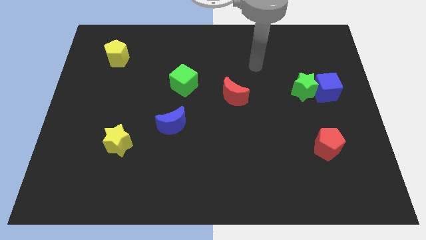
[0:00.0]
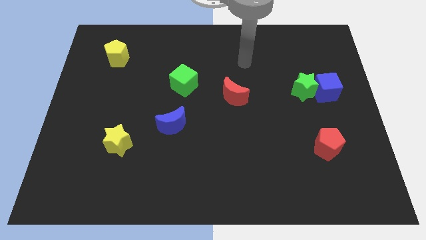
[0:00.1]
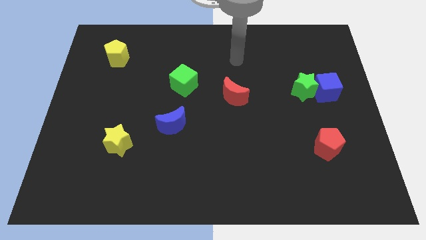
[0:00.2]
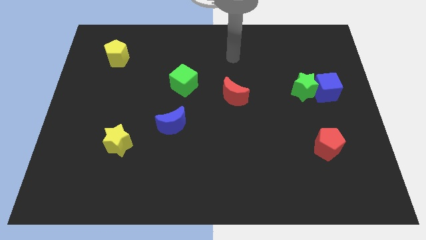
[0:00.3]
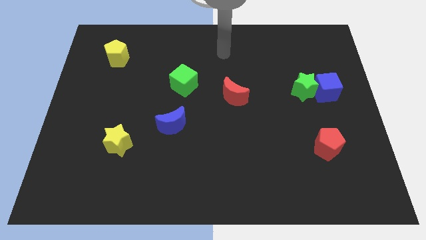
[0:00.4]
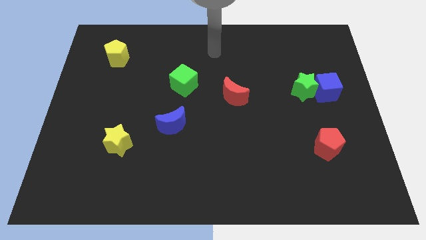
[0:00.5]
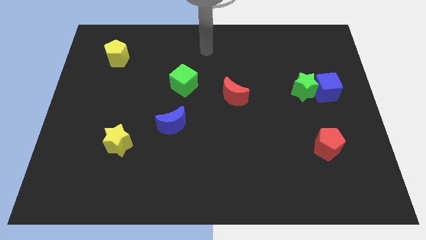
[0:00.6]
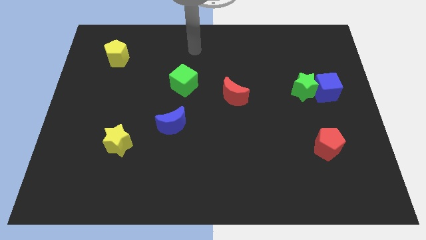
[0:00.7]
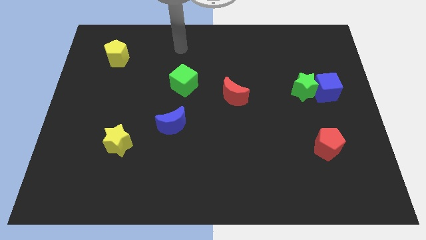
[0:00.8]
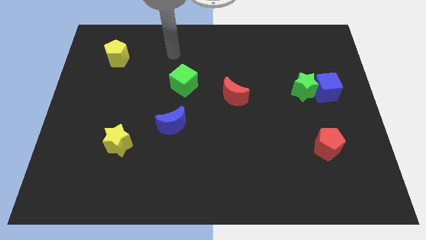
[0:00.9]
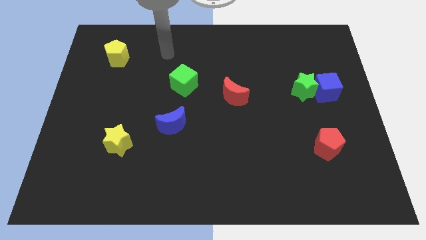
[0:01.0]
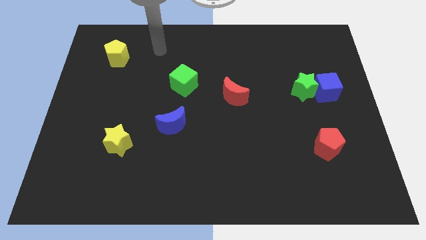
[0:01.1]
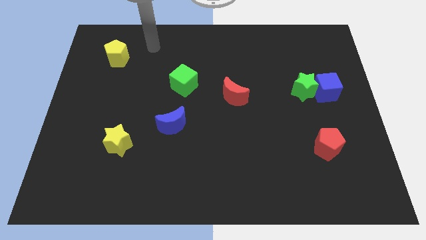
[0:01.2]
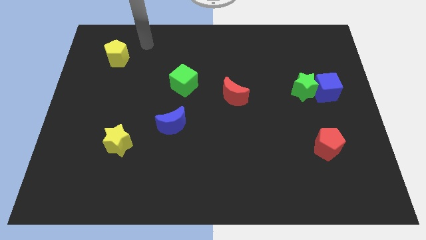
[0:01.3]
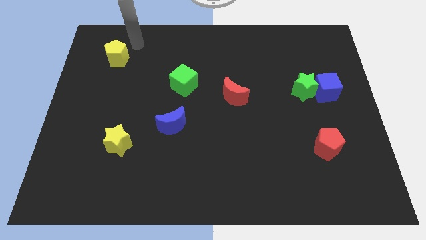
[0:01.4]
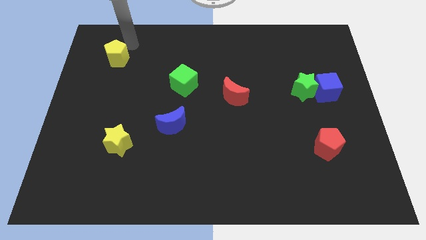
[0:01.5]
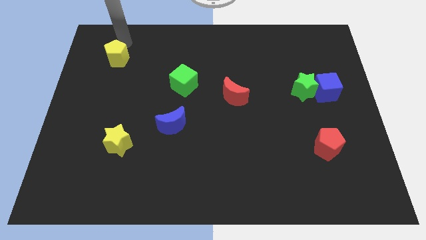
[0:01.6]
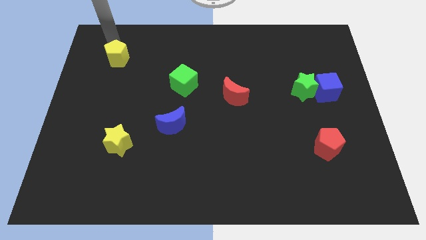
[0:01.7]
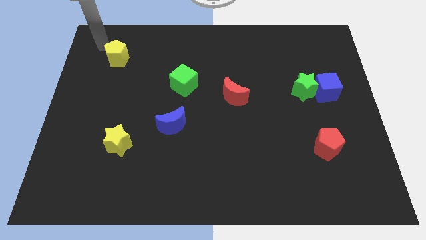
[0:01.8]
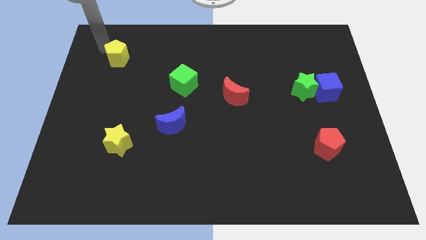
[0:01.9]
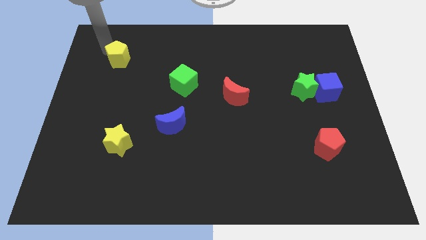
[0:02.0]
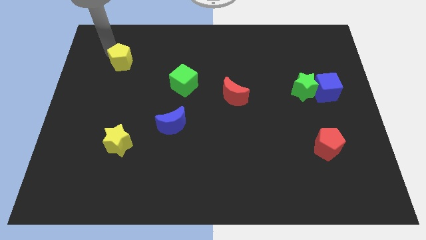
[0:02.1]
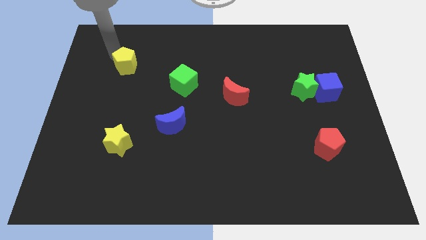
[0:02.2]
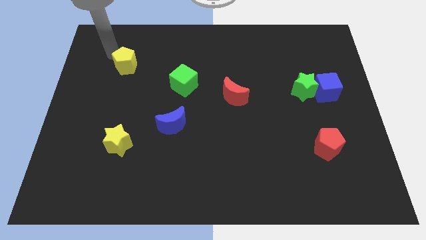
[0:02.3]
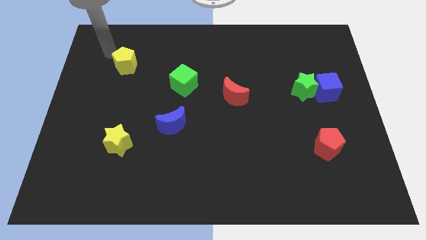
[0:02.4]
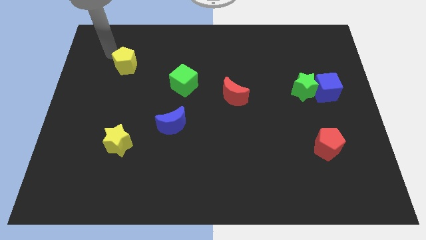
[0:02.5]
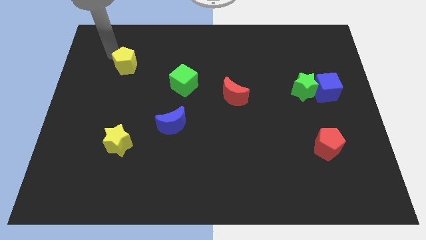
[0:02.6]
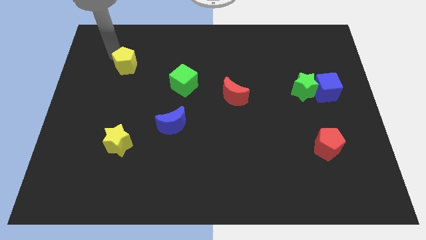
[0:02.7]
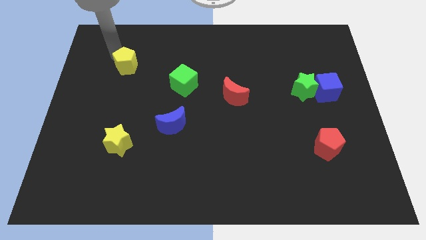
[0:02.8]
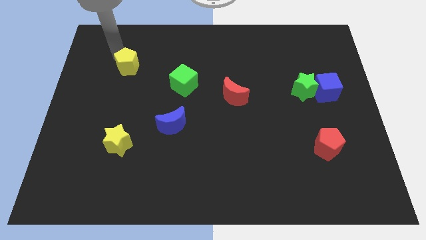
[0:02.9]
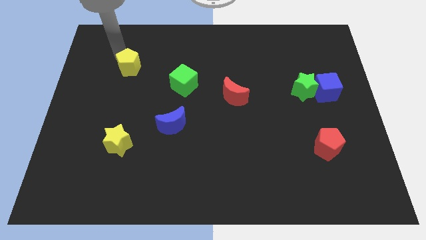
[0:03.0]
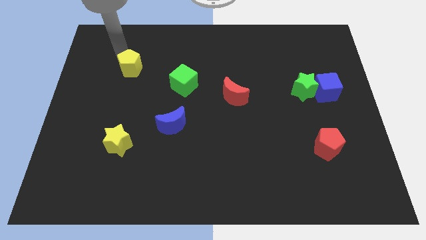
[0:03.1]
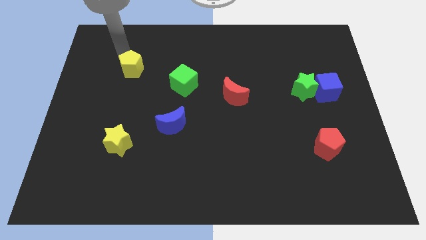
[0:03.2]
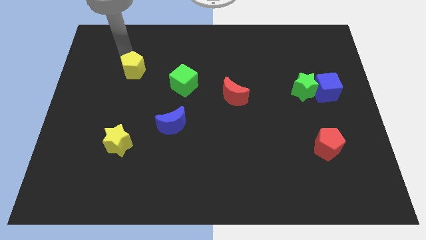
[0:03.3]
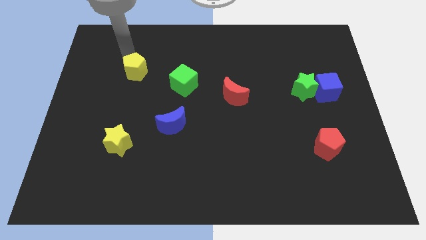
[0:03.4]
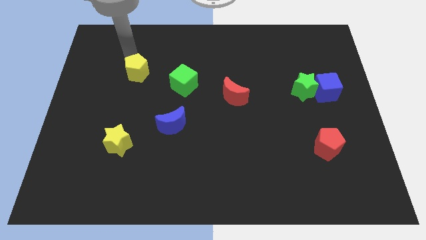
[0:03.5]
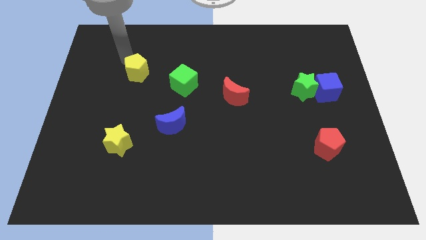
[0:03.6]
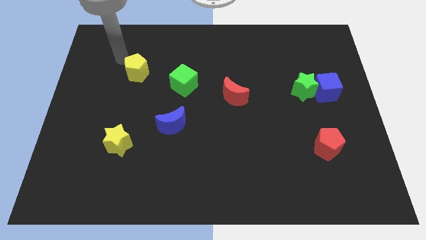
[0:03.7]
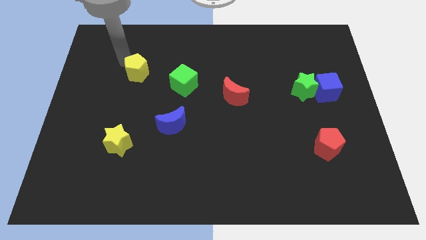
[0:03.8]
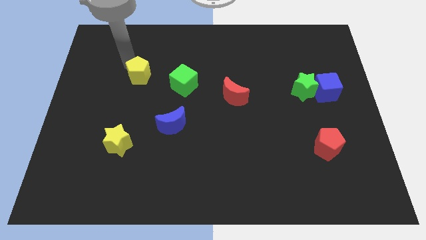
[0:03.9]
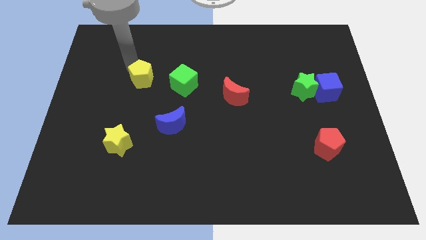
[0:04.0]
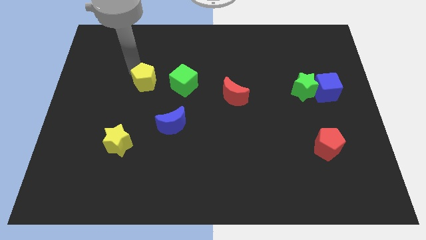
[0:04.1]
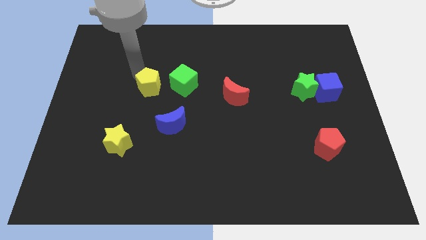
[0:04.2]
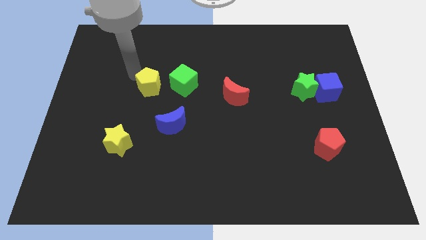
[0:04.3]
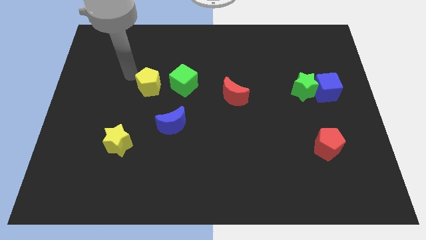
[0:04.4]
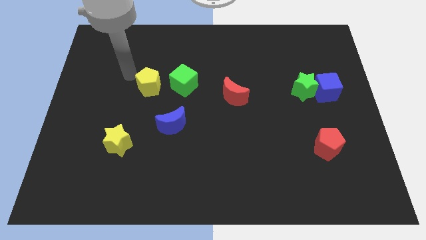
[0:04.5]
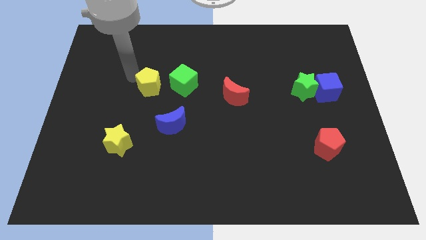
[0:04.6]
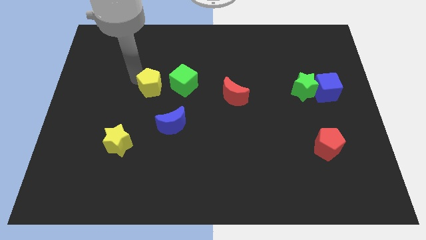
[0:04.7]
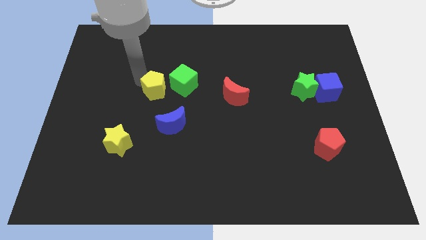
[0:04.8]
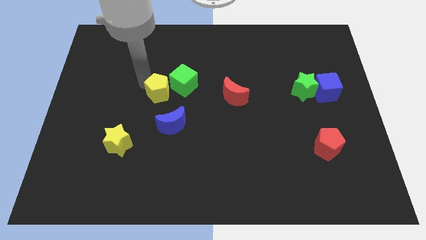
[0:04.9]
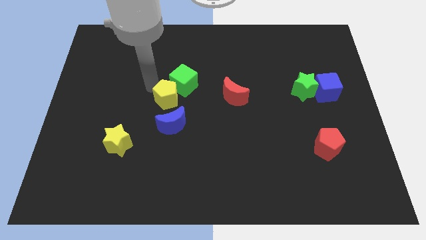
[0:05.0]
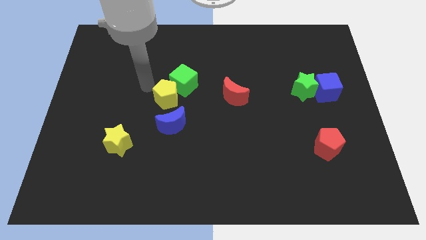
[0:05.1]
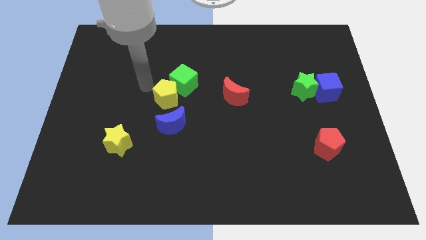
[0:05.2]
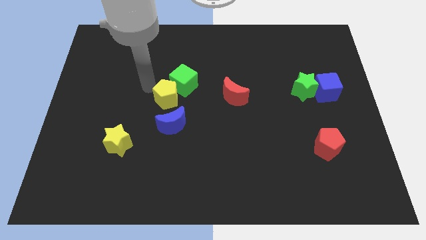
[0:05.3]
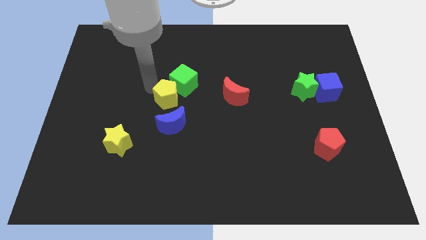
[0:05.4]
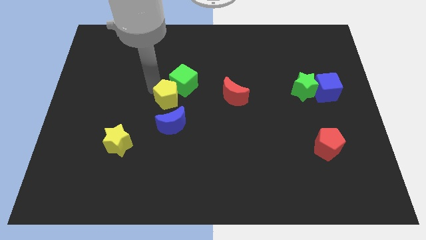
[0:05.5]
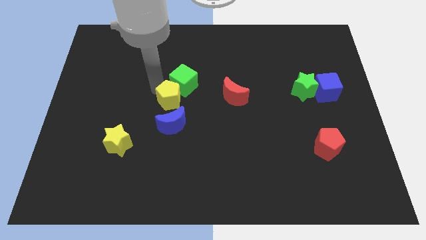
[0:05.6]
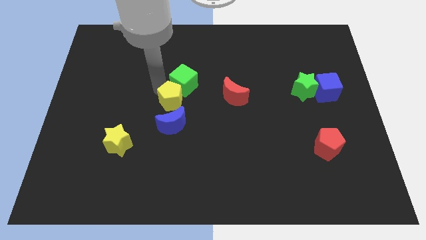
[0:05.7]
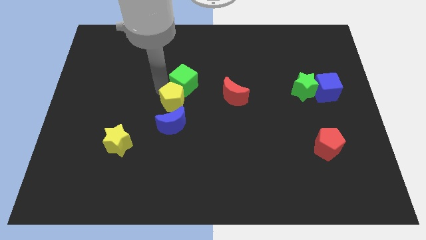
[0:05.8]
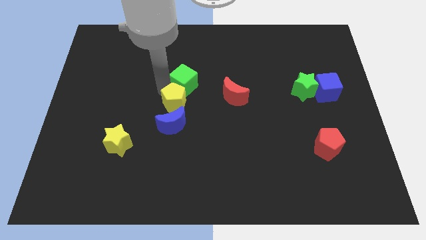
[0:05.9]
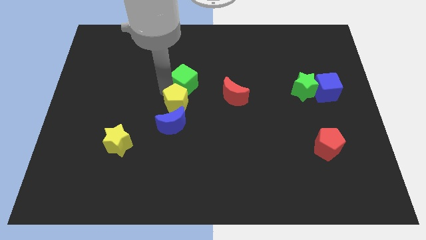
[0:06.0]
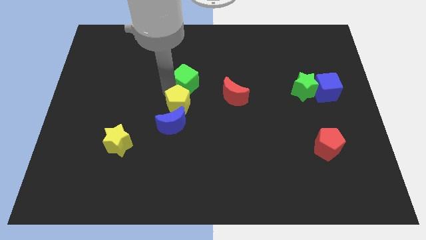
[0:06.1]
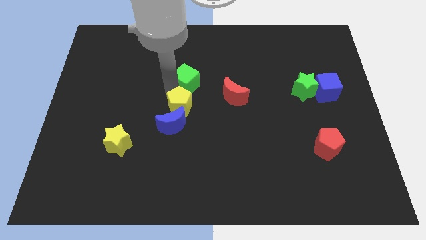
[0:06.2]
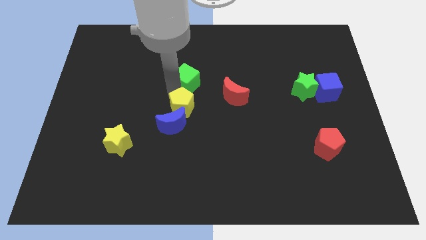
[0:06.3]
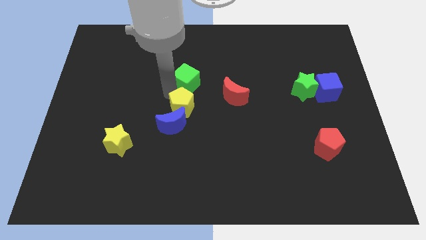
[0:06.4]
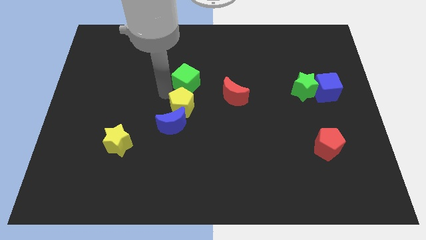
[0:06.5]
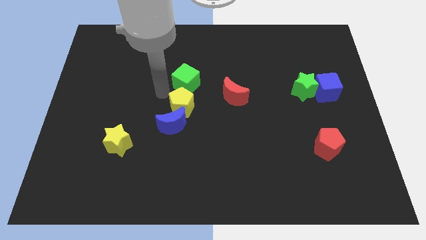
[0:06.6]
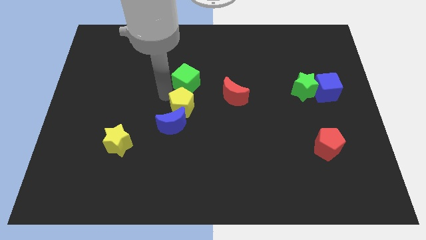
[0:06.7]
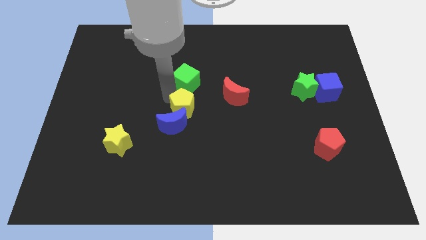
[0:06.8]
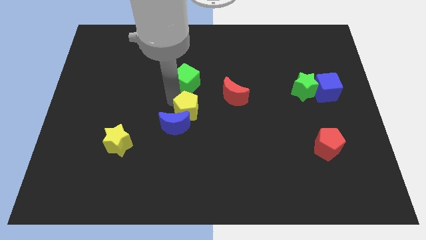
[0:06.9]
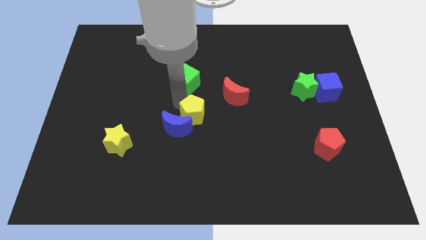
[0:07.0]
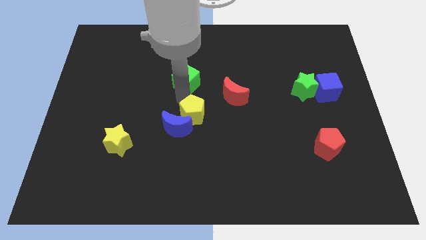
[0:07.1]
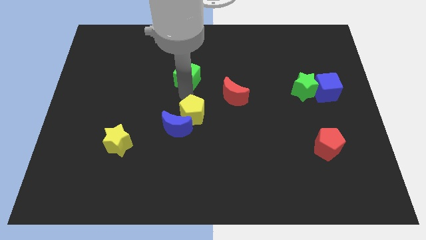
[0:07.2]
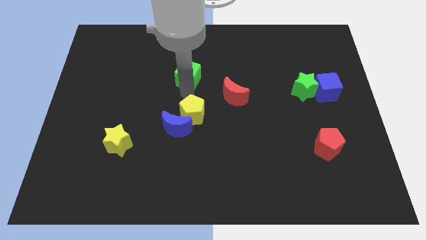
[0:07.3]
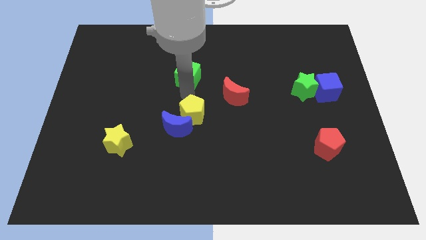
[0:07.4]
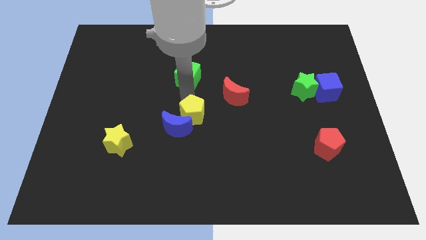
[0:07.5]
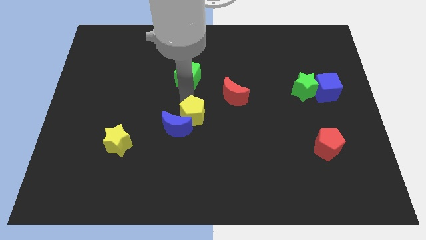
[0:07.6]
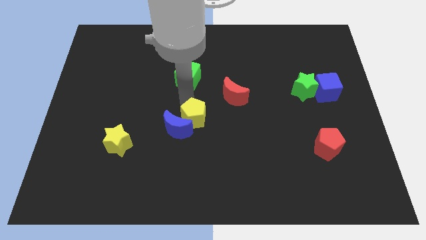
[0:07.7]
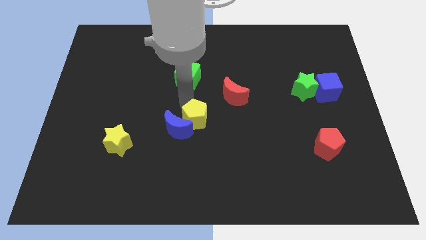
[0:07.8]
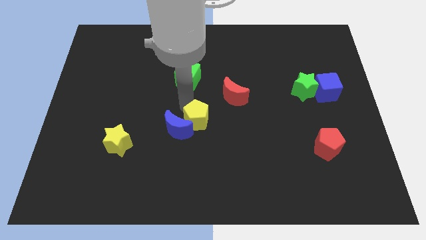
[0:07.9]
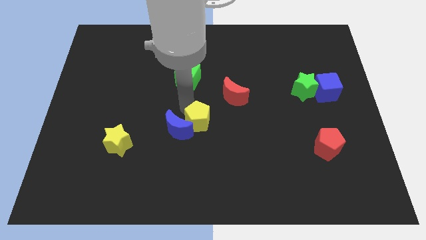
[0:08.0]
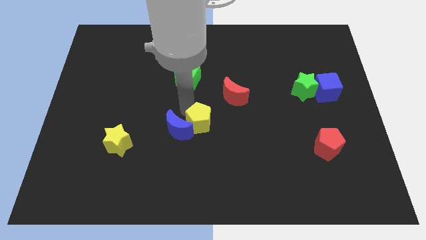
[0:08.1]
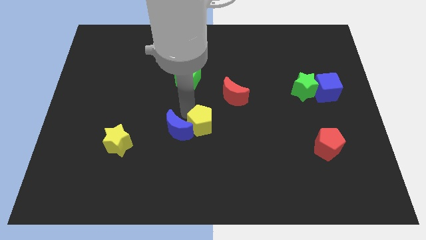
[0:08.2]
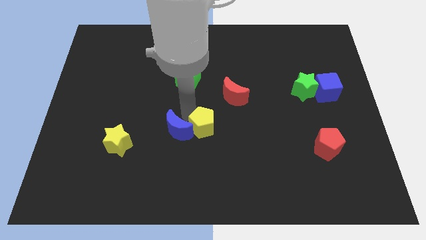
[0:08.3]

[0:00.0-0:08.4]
push the yellow pentagon diagonally down and to the right of the blue moon
